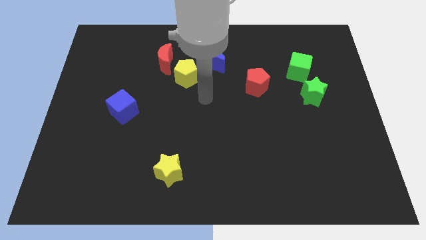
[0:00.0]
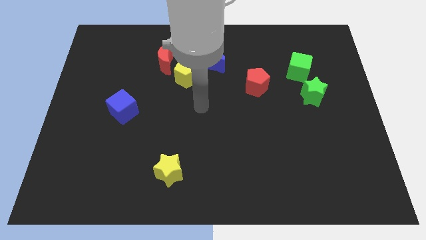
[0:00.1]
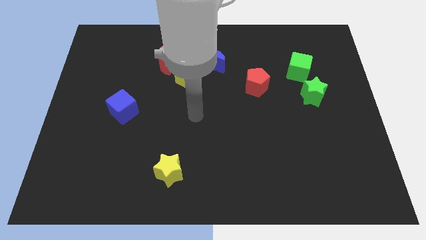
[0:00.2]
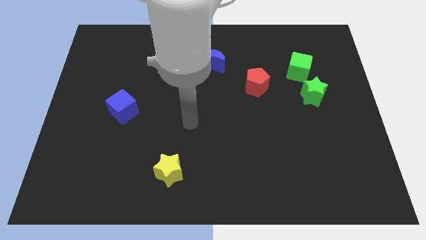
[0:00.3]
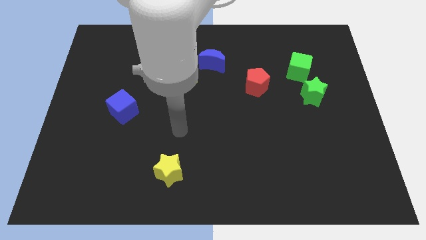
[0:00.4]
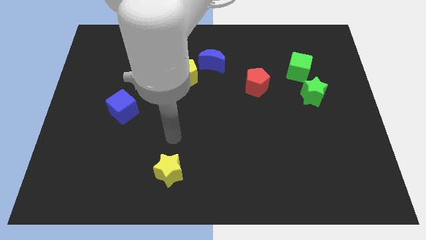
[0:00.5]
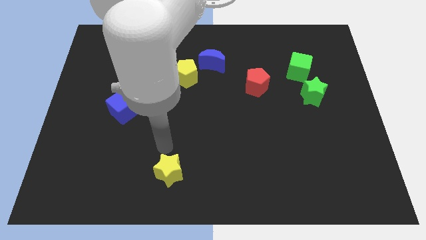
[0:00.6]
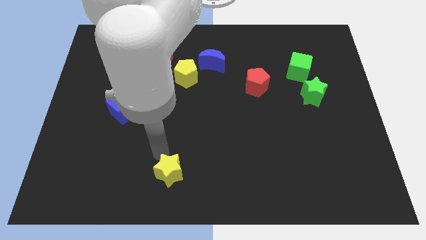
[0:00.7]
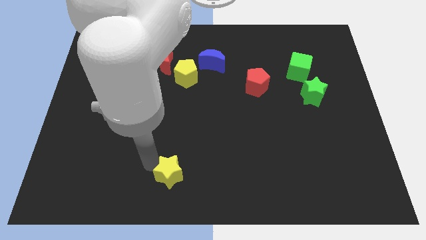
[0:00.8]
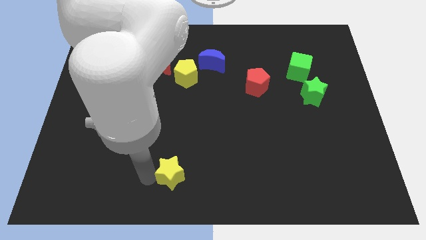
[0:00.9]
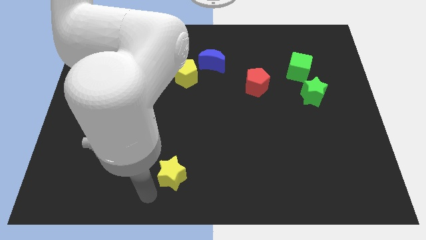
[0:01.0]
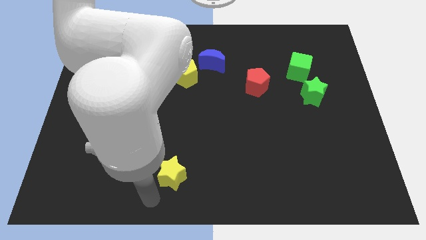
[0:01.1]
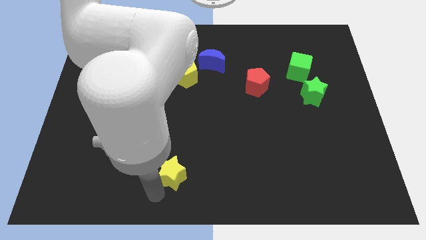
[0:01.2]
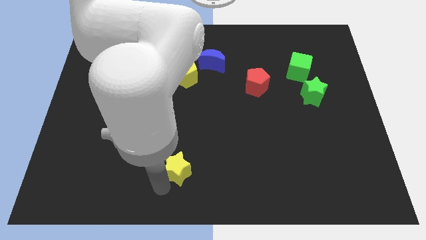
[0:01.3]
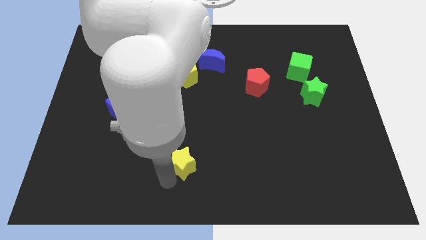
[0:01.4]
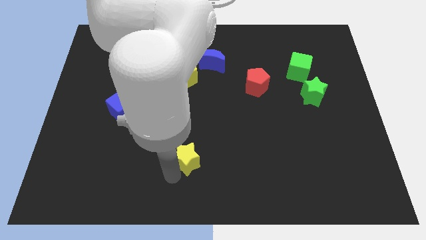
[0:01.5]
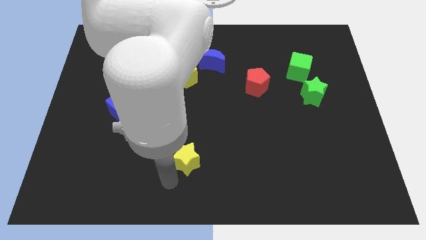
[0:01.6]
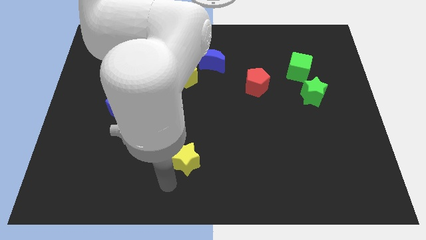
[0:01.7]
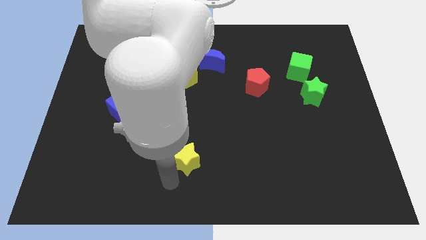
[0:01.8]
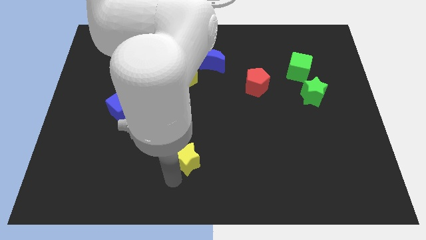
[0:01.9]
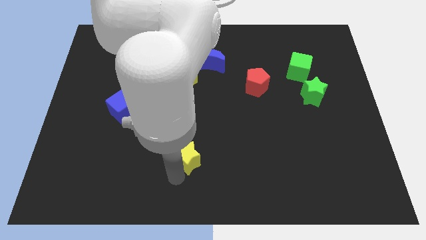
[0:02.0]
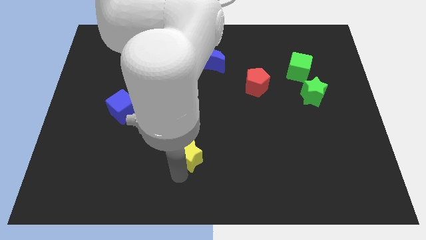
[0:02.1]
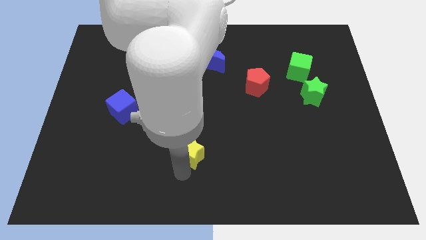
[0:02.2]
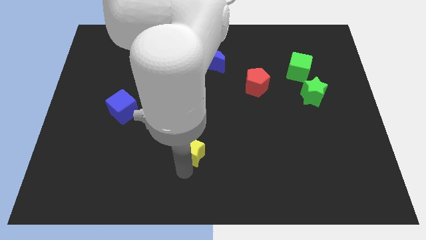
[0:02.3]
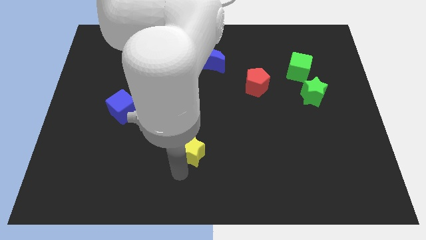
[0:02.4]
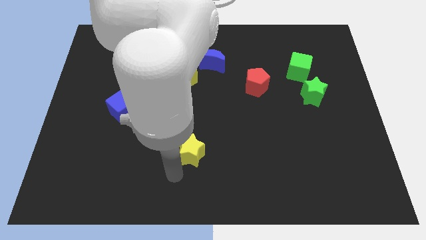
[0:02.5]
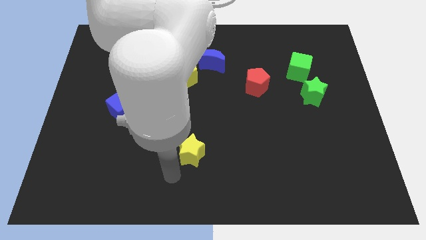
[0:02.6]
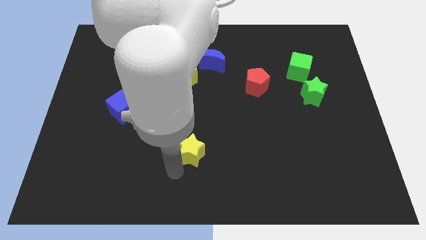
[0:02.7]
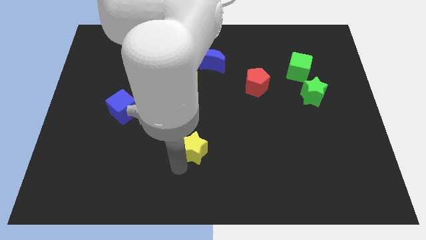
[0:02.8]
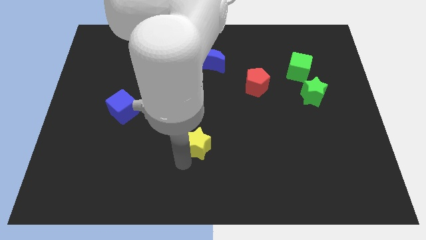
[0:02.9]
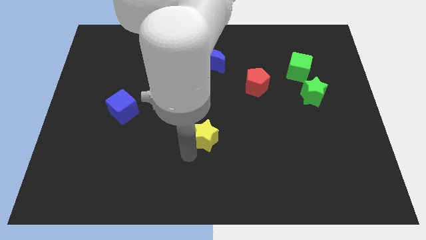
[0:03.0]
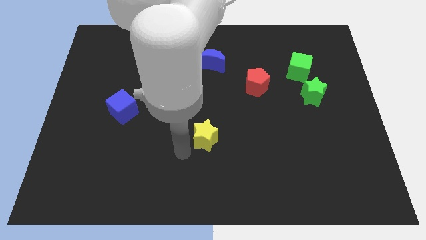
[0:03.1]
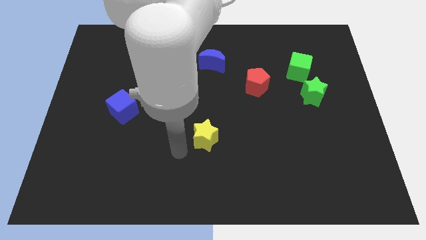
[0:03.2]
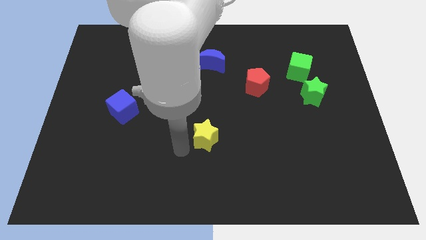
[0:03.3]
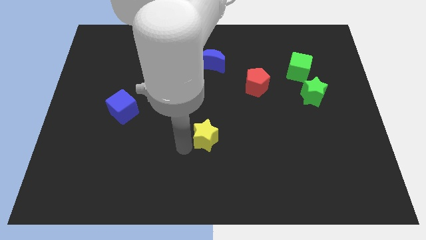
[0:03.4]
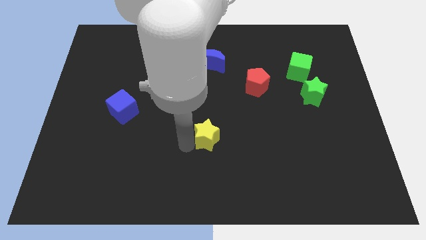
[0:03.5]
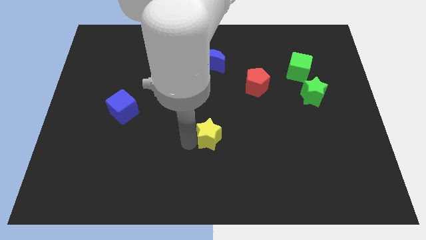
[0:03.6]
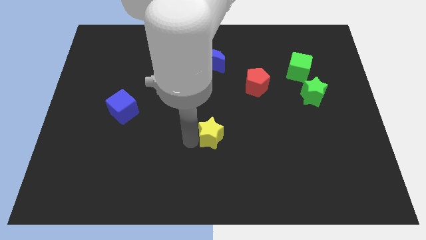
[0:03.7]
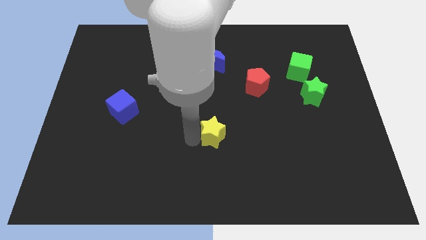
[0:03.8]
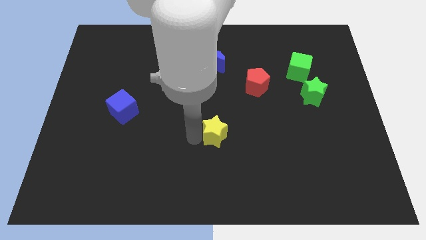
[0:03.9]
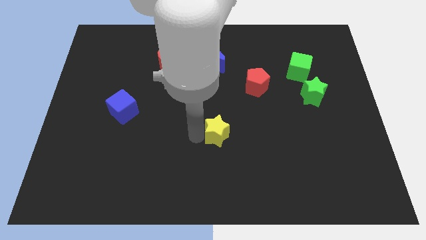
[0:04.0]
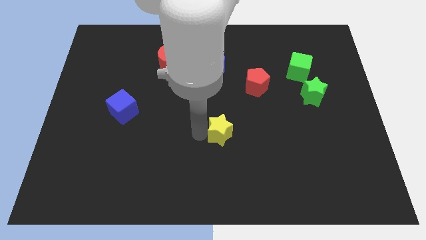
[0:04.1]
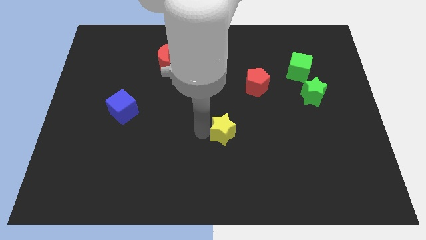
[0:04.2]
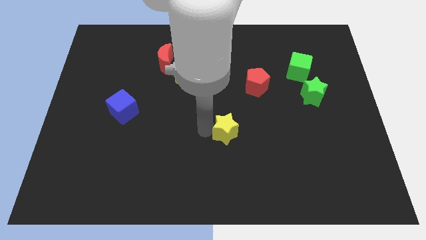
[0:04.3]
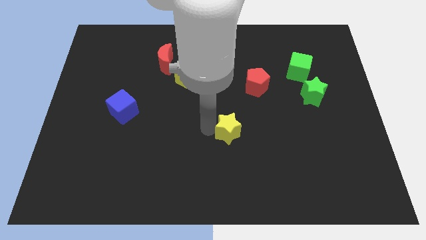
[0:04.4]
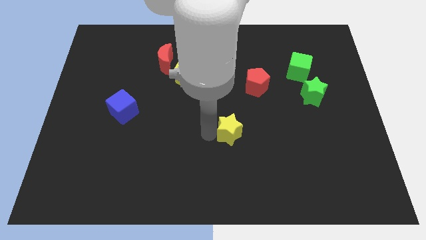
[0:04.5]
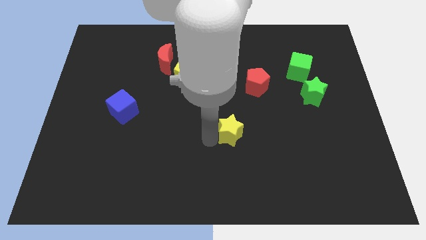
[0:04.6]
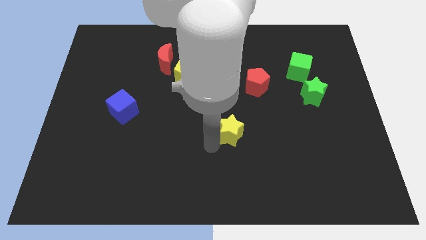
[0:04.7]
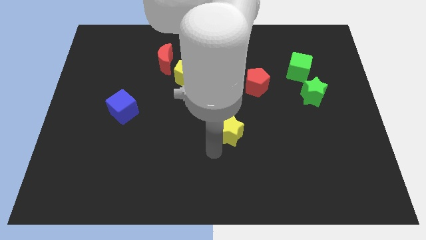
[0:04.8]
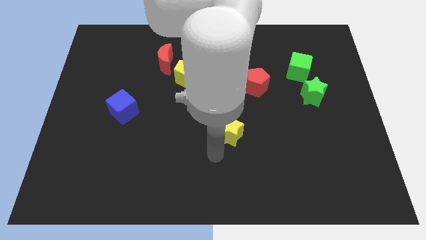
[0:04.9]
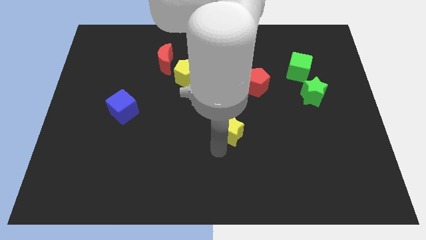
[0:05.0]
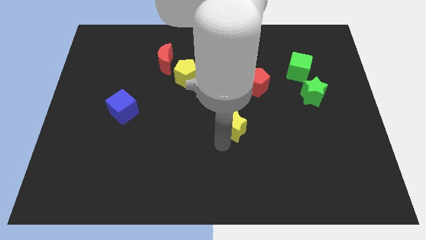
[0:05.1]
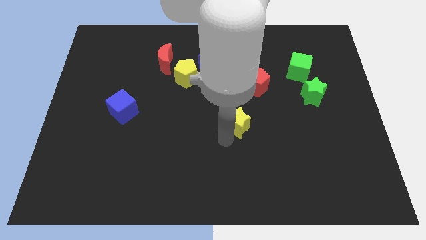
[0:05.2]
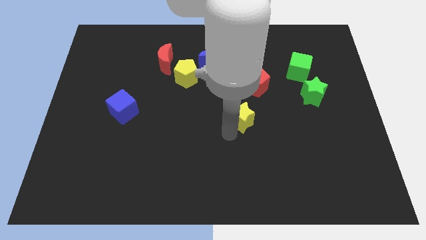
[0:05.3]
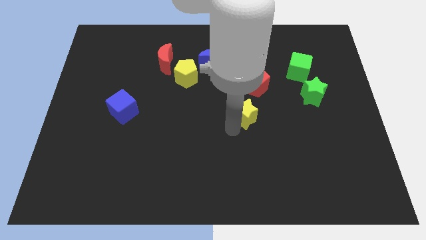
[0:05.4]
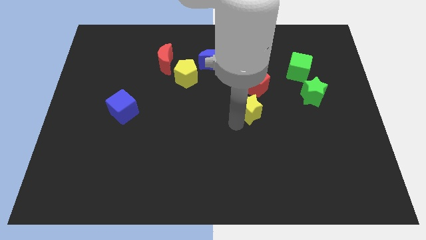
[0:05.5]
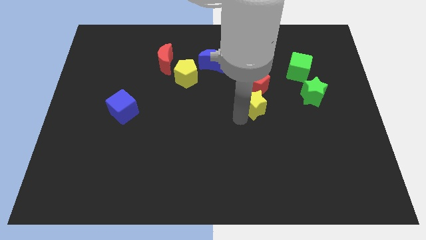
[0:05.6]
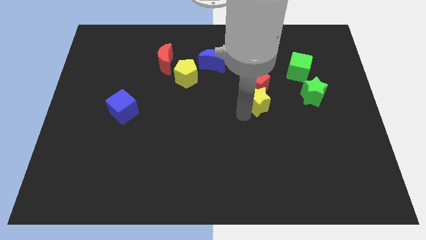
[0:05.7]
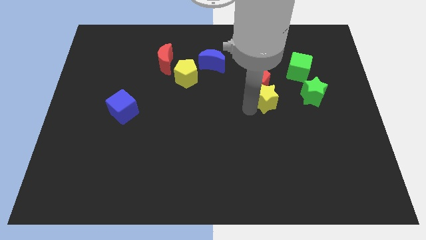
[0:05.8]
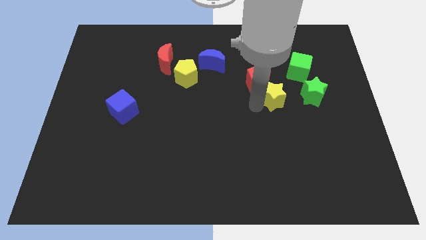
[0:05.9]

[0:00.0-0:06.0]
move the yellow star diagonally down and to the left of the green cube

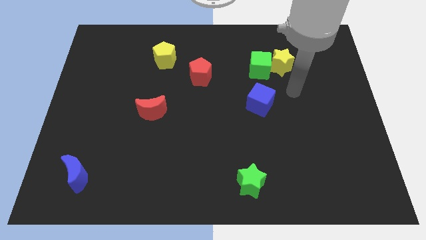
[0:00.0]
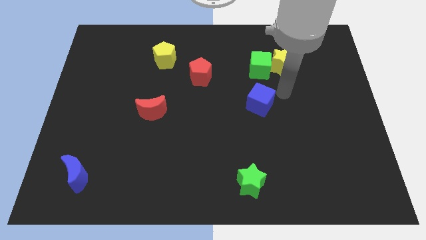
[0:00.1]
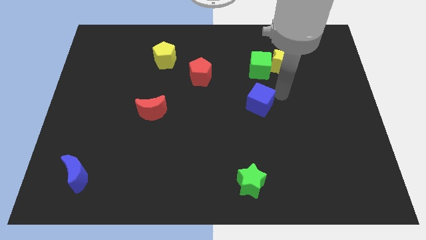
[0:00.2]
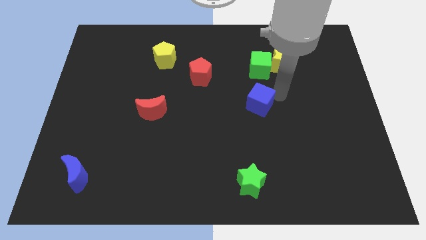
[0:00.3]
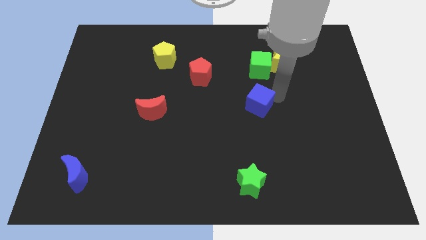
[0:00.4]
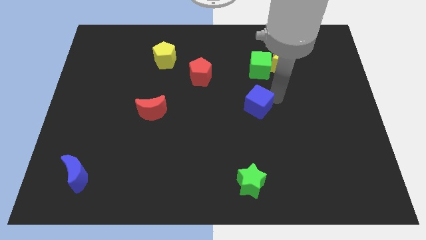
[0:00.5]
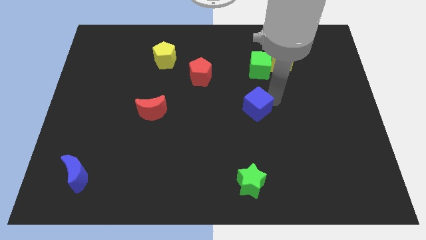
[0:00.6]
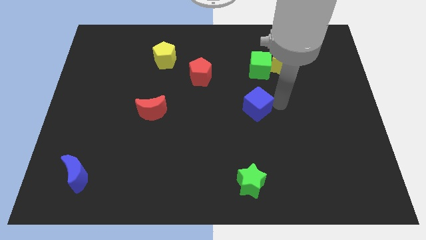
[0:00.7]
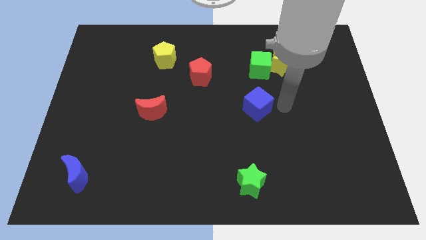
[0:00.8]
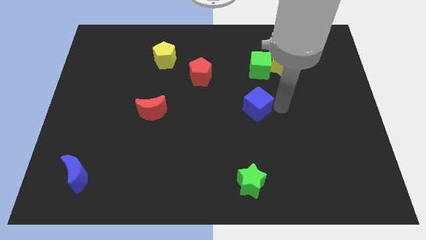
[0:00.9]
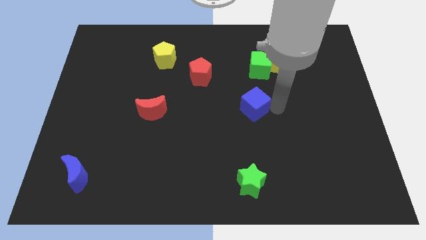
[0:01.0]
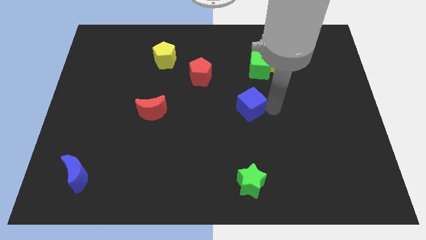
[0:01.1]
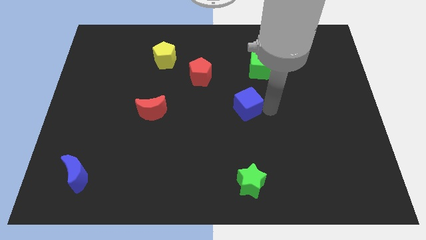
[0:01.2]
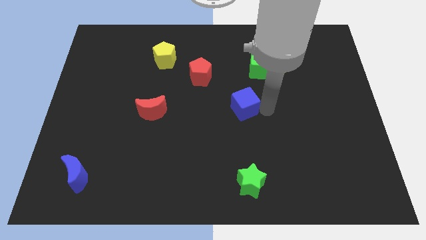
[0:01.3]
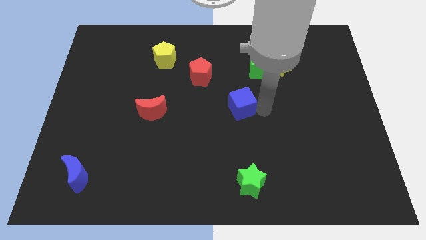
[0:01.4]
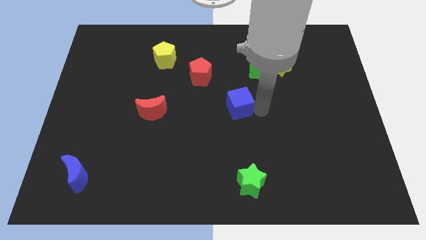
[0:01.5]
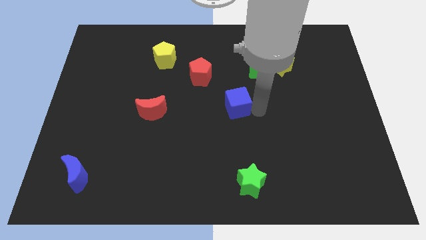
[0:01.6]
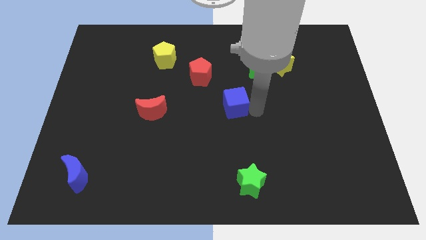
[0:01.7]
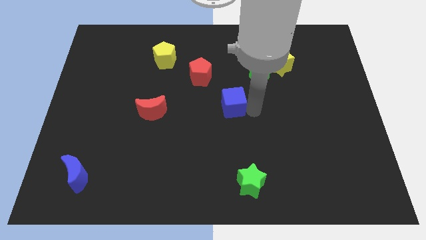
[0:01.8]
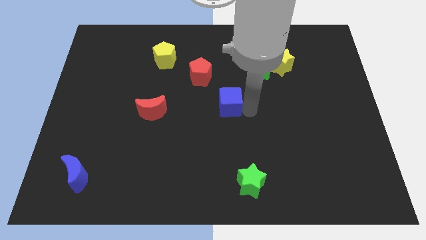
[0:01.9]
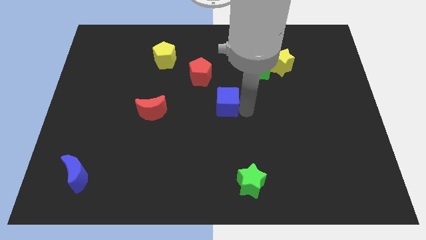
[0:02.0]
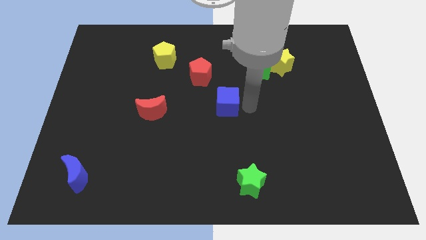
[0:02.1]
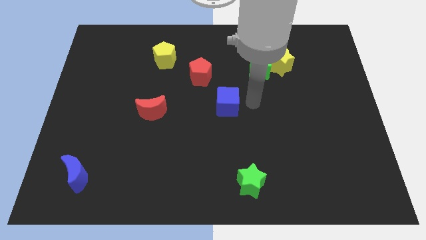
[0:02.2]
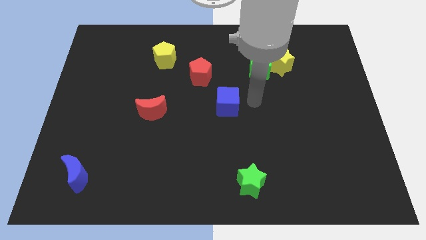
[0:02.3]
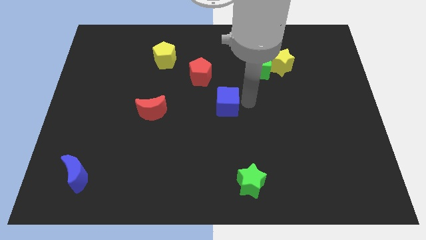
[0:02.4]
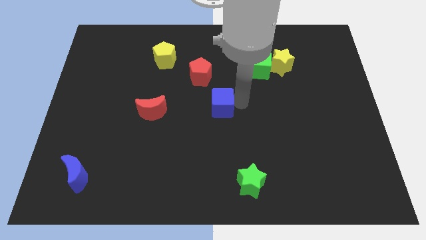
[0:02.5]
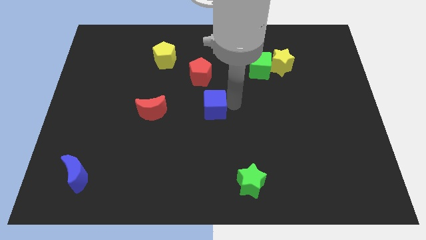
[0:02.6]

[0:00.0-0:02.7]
push the blue cube below the red pentagon
